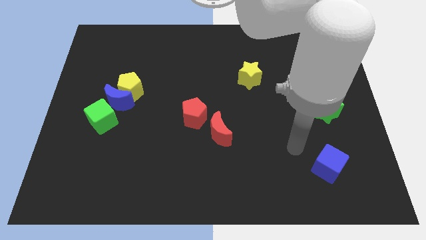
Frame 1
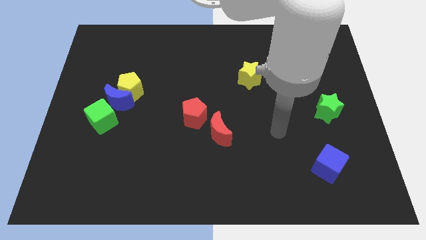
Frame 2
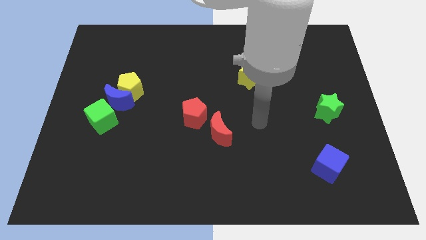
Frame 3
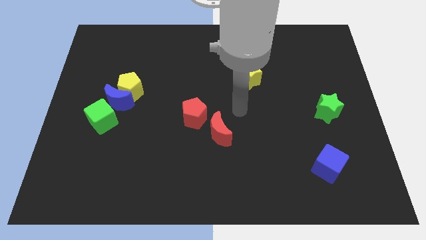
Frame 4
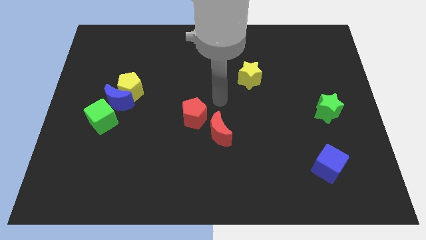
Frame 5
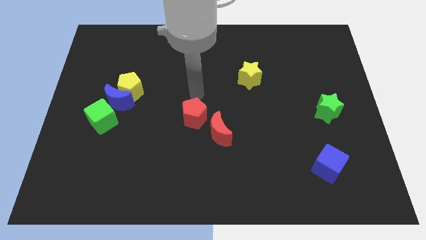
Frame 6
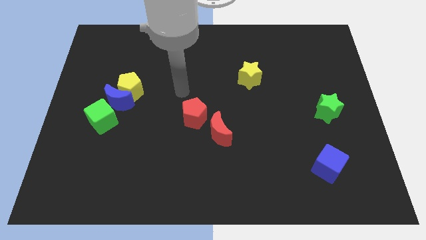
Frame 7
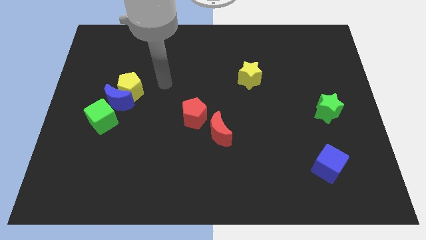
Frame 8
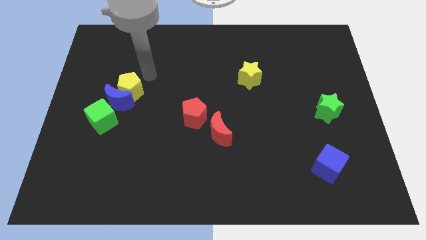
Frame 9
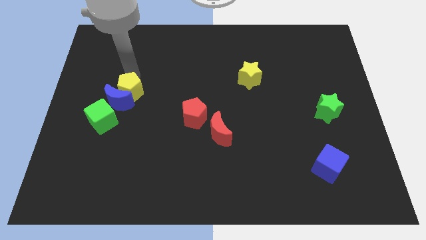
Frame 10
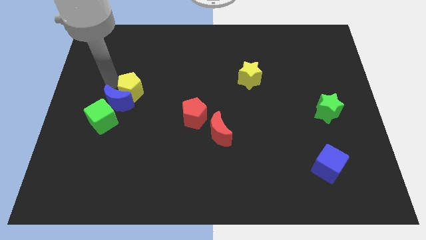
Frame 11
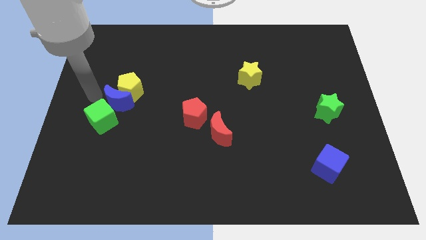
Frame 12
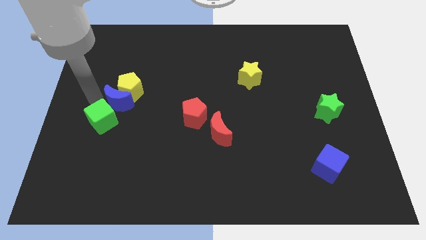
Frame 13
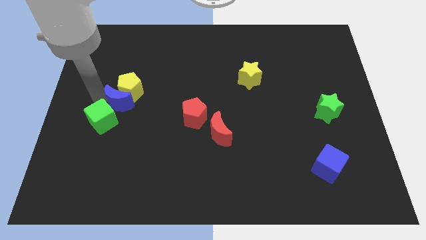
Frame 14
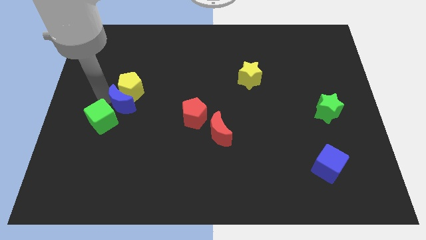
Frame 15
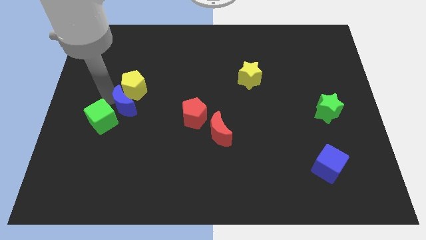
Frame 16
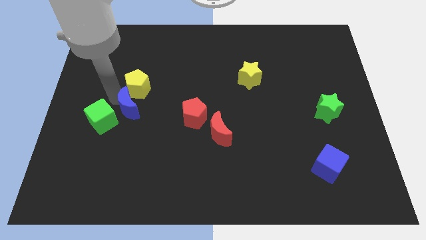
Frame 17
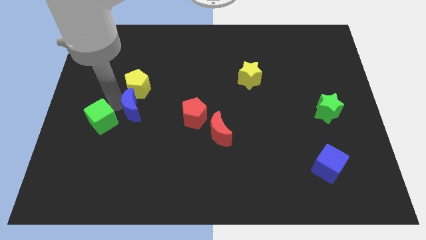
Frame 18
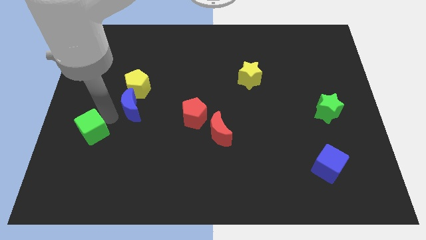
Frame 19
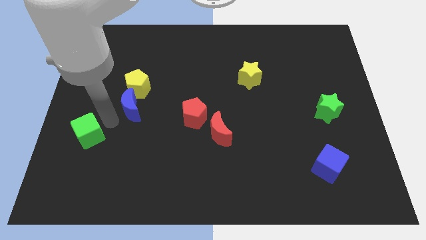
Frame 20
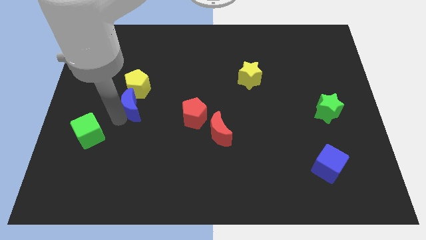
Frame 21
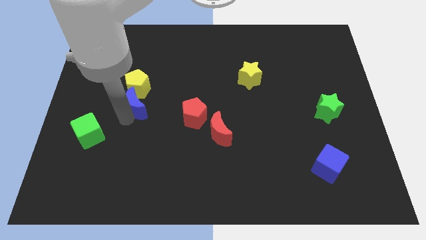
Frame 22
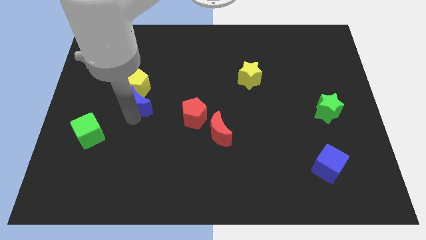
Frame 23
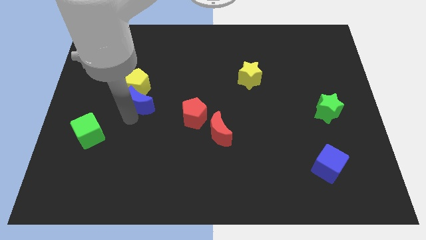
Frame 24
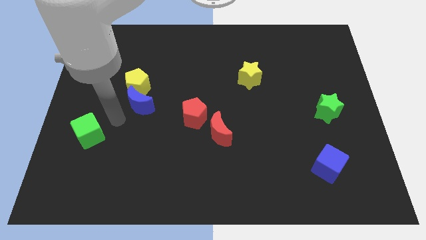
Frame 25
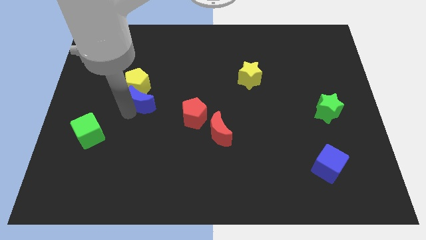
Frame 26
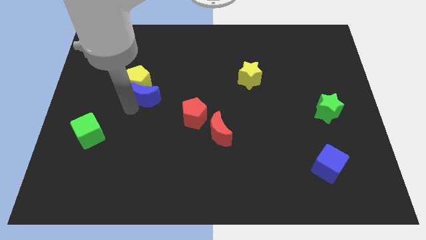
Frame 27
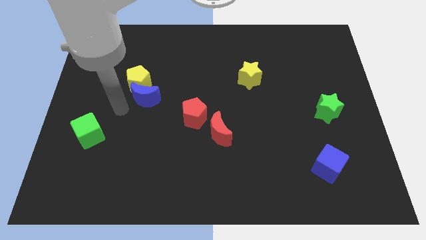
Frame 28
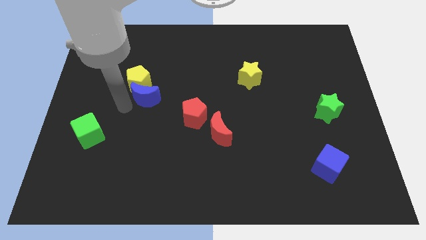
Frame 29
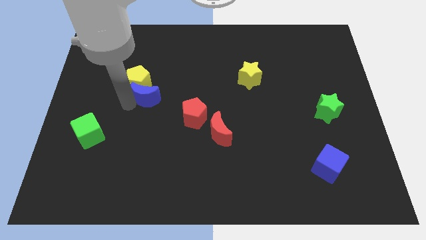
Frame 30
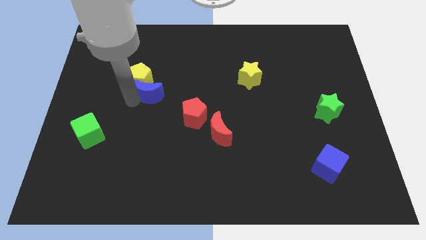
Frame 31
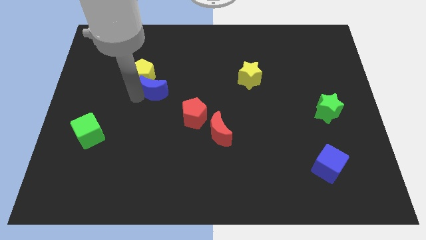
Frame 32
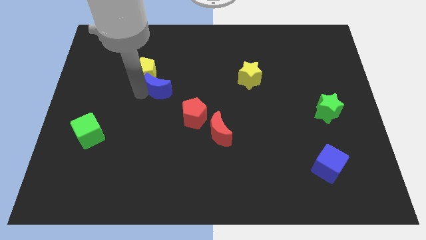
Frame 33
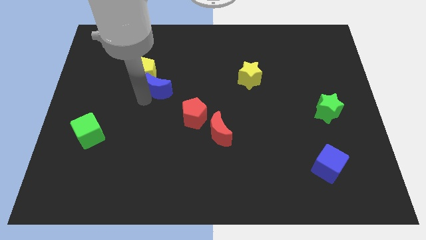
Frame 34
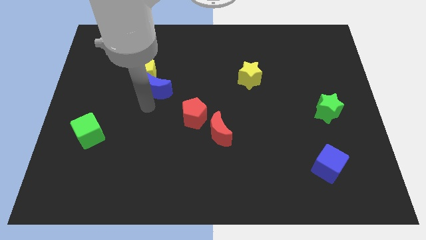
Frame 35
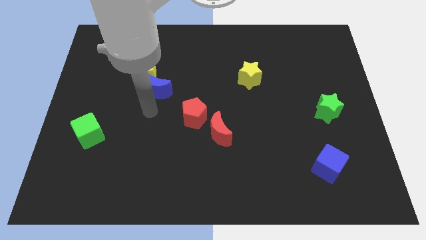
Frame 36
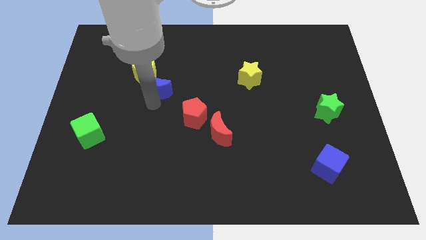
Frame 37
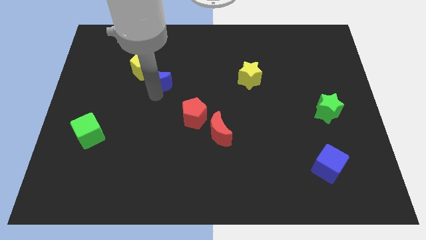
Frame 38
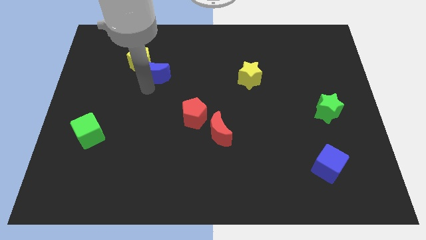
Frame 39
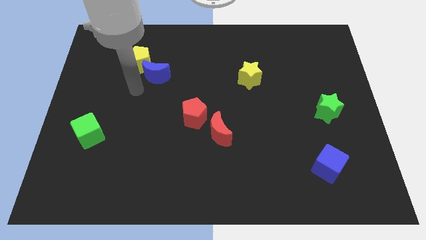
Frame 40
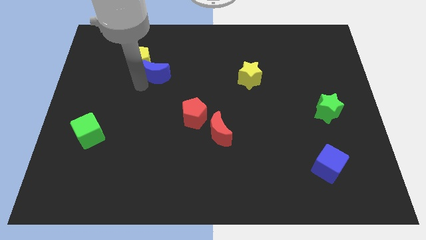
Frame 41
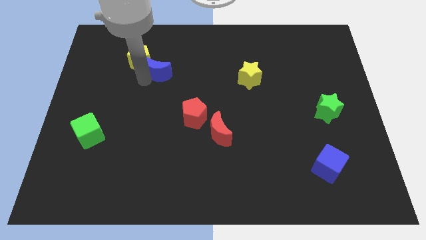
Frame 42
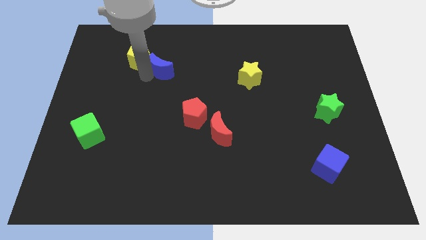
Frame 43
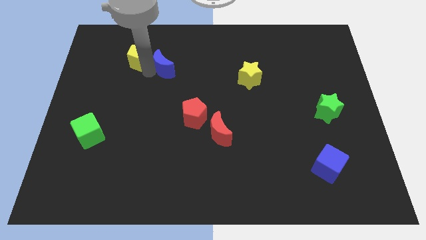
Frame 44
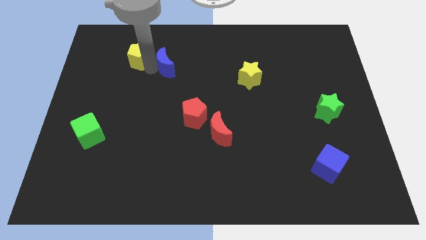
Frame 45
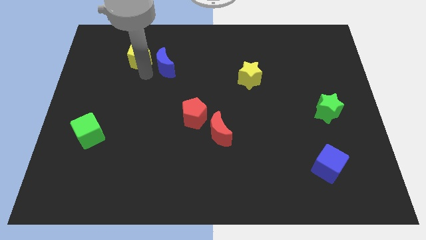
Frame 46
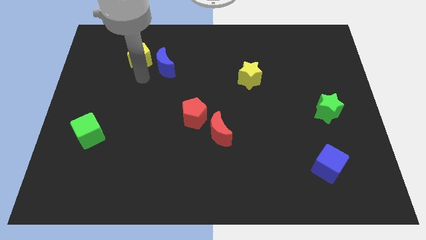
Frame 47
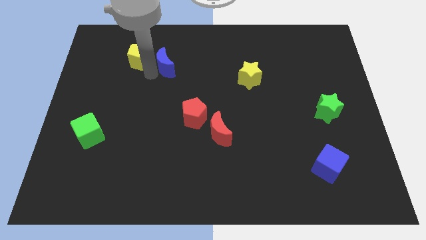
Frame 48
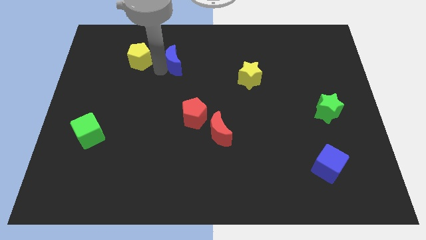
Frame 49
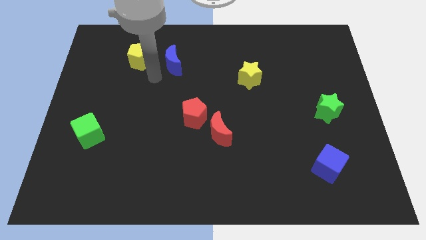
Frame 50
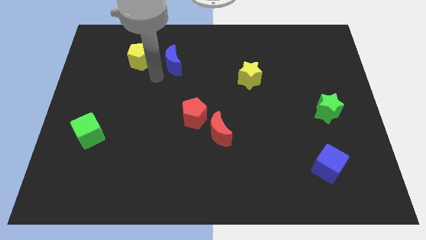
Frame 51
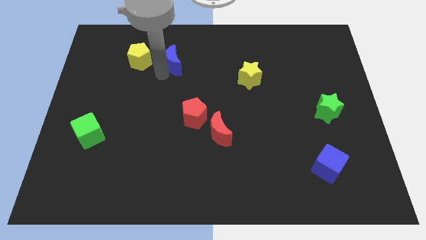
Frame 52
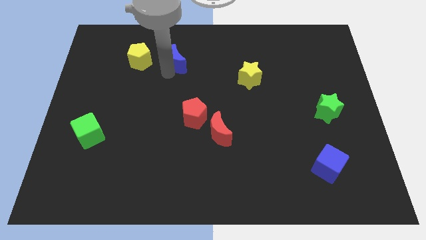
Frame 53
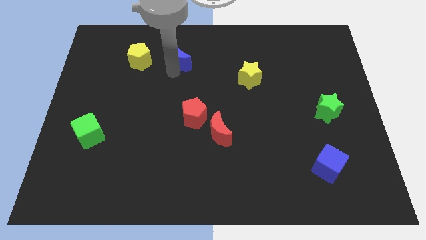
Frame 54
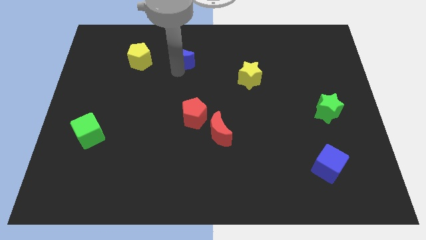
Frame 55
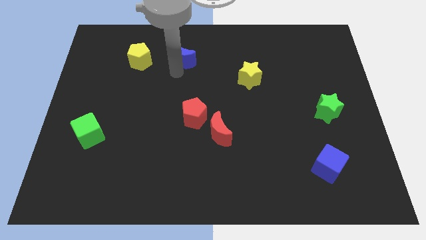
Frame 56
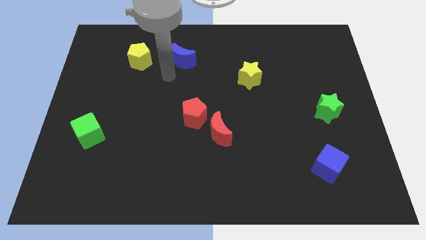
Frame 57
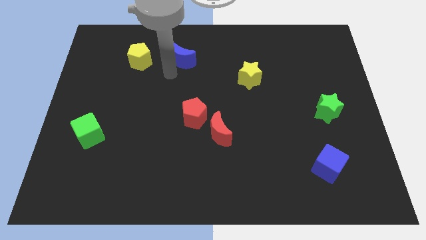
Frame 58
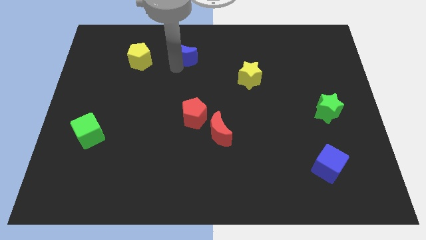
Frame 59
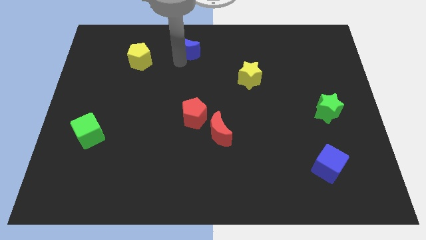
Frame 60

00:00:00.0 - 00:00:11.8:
put the blue moon to the towards your base

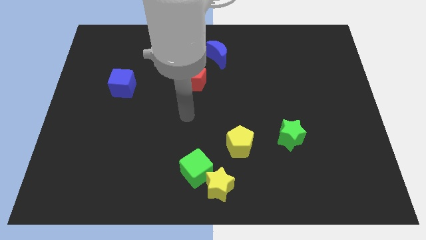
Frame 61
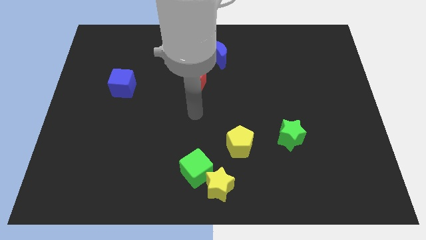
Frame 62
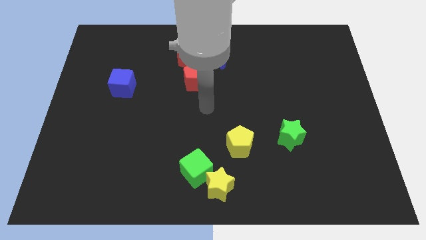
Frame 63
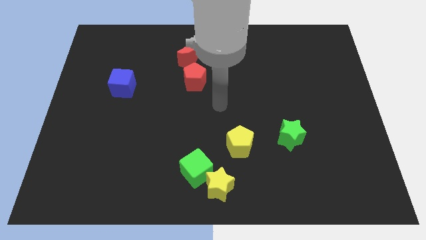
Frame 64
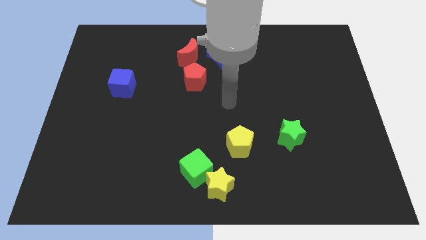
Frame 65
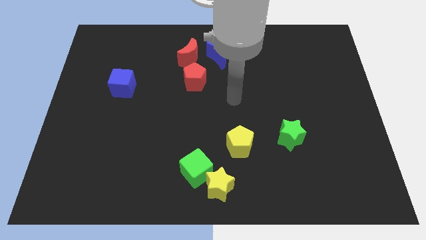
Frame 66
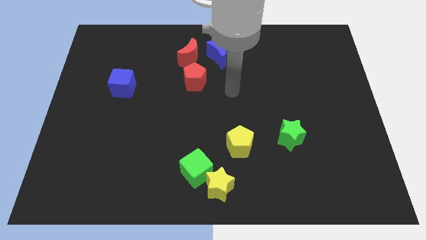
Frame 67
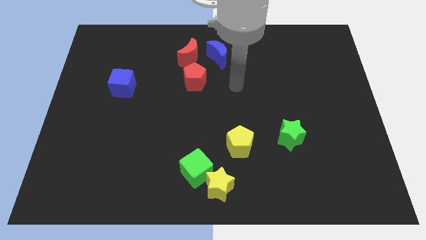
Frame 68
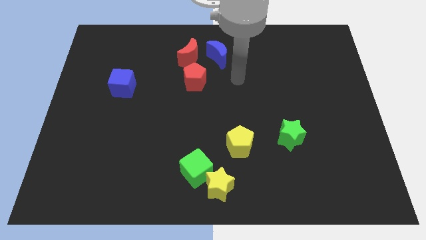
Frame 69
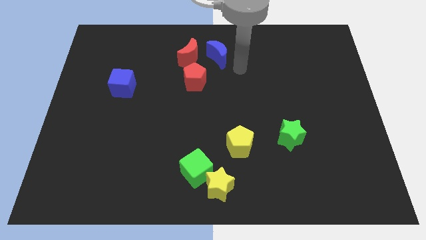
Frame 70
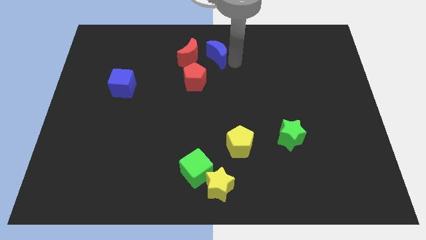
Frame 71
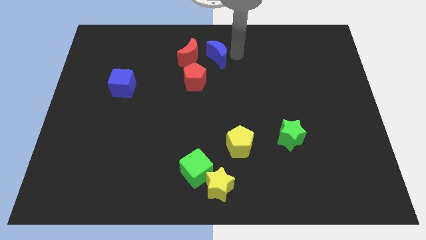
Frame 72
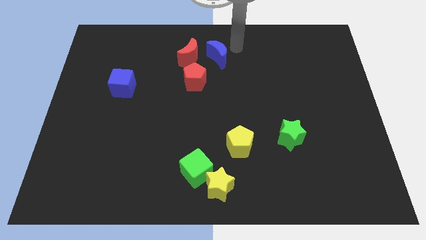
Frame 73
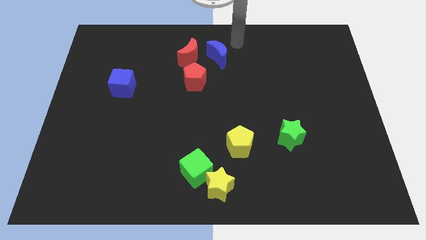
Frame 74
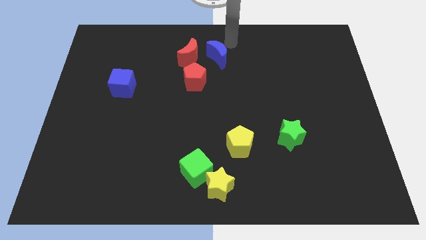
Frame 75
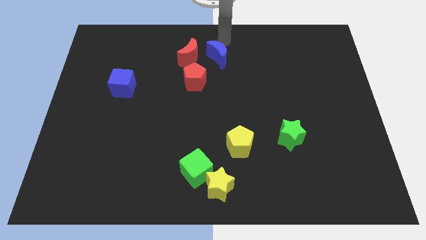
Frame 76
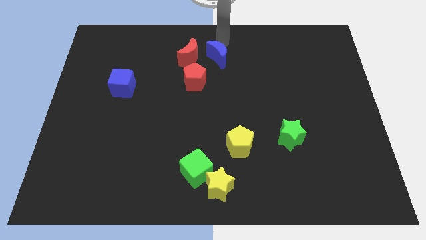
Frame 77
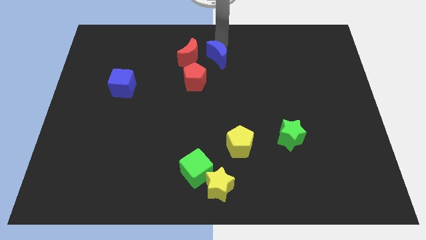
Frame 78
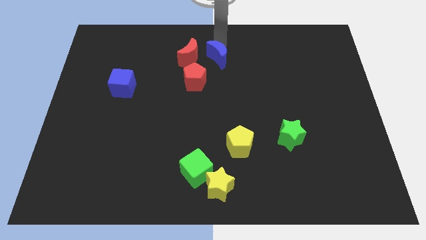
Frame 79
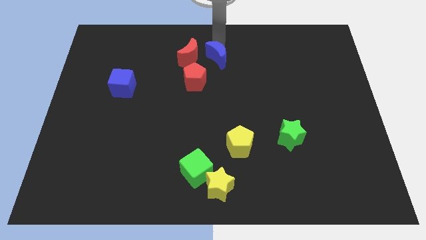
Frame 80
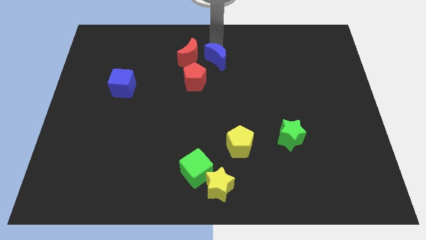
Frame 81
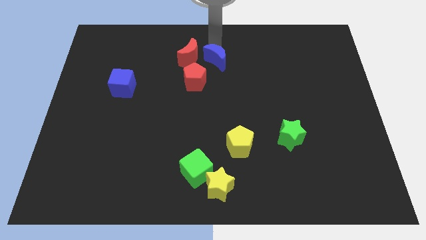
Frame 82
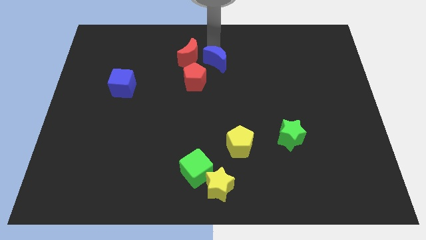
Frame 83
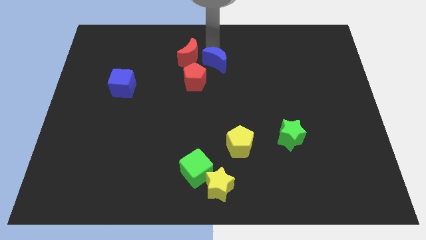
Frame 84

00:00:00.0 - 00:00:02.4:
slide the blue moon to the center of the board
